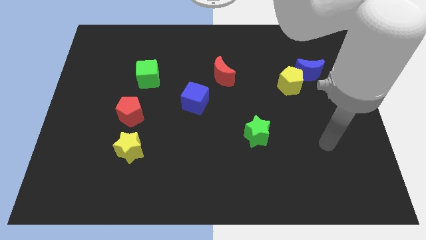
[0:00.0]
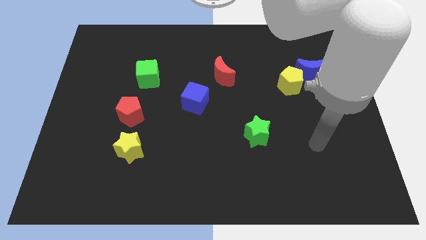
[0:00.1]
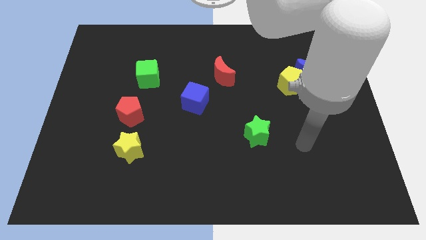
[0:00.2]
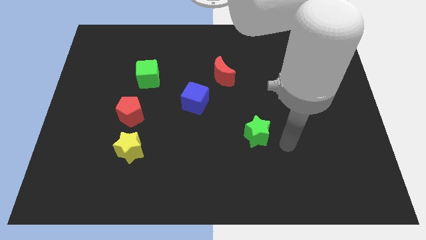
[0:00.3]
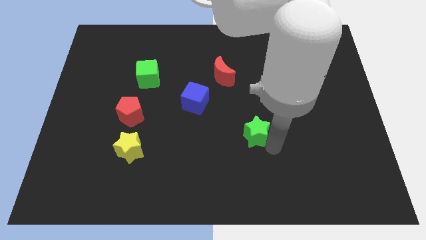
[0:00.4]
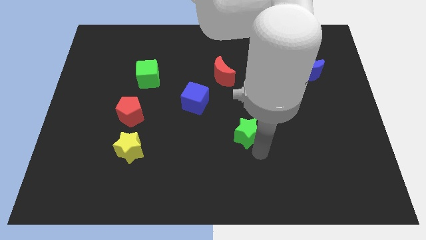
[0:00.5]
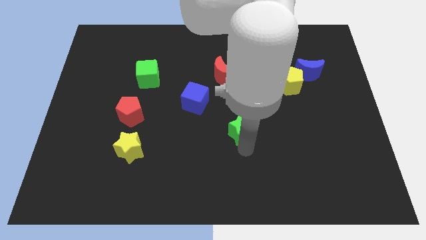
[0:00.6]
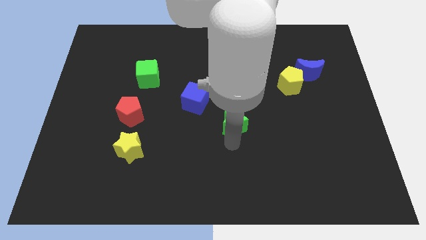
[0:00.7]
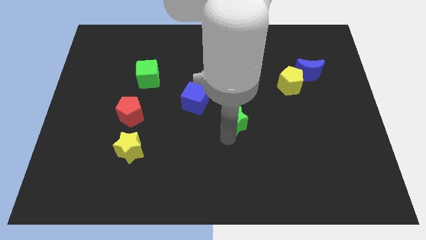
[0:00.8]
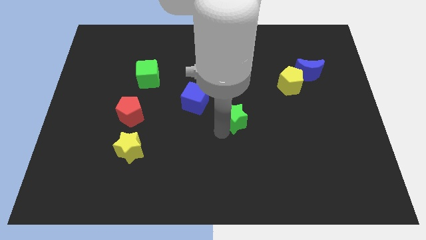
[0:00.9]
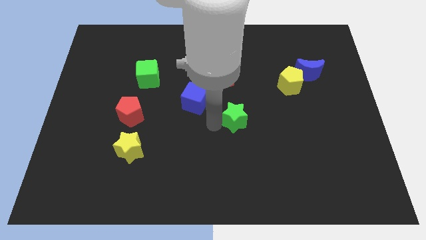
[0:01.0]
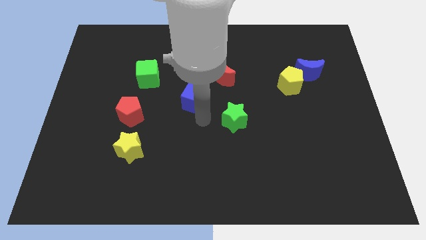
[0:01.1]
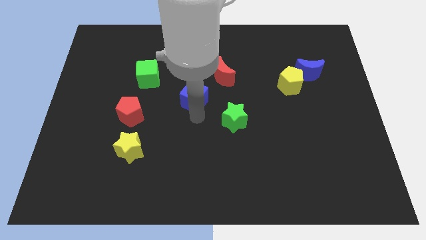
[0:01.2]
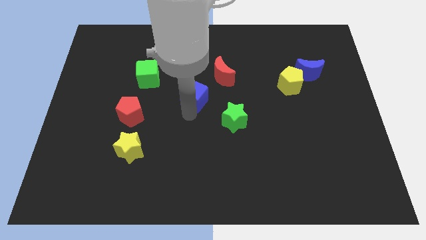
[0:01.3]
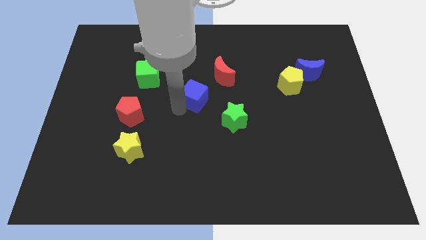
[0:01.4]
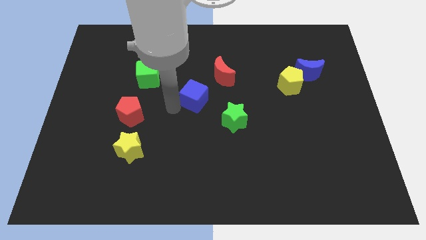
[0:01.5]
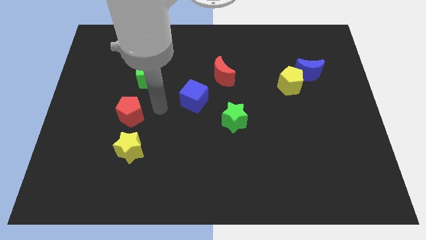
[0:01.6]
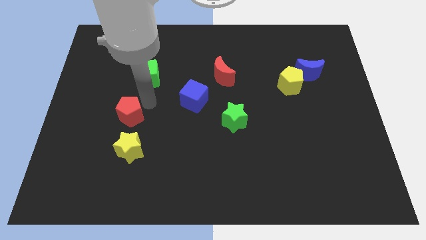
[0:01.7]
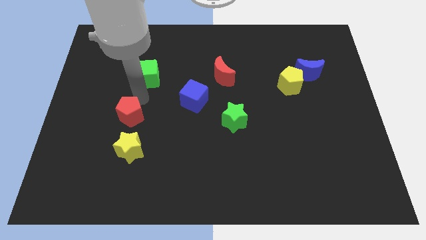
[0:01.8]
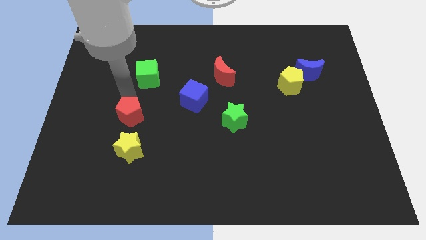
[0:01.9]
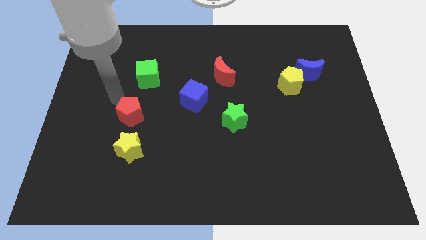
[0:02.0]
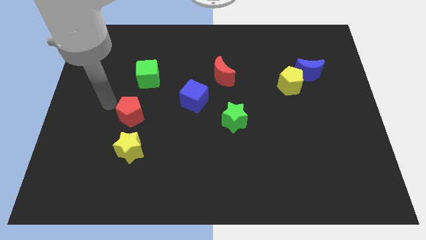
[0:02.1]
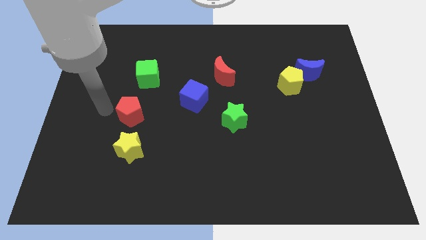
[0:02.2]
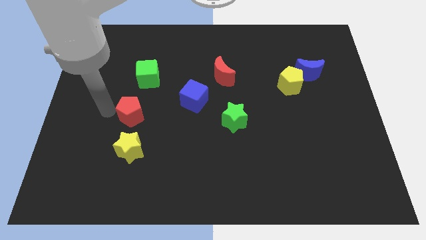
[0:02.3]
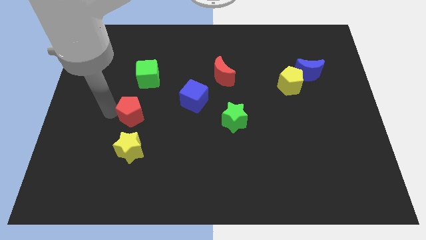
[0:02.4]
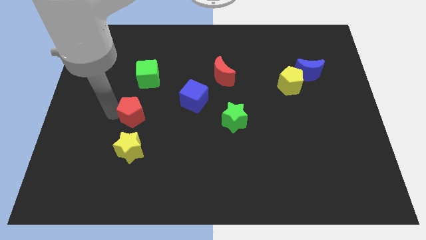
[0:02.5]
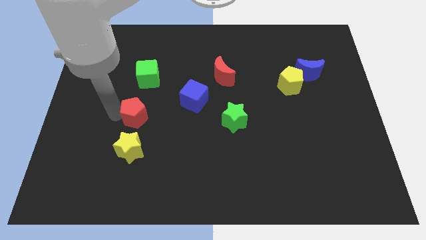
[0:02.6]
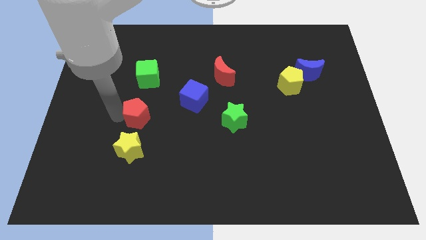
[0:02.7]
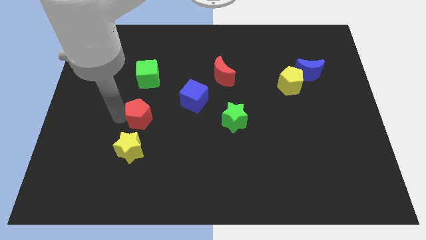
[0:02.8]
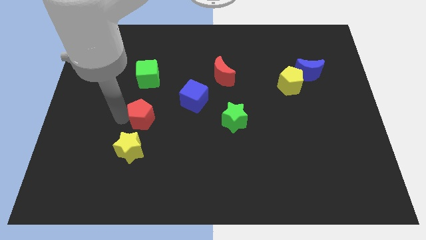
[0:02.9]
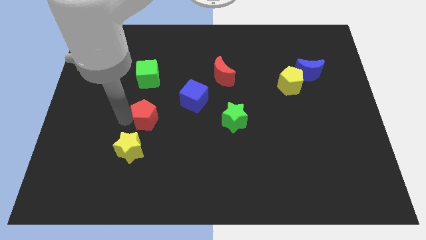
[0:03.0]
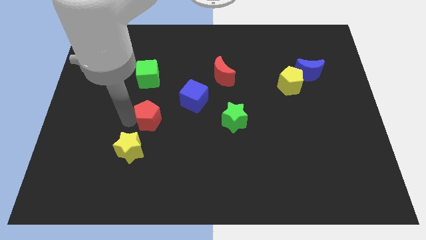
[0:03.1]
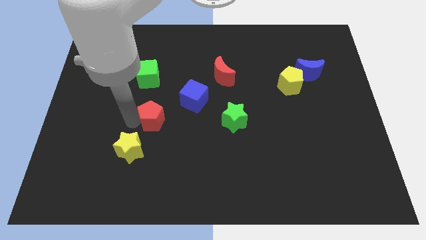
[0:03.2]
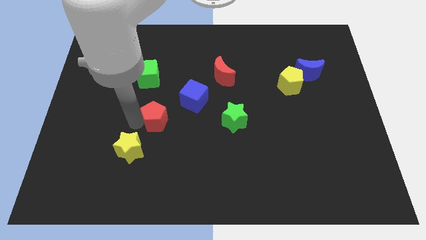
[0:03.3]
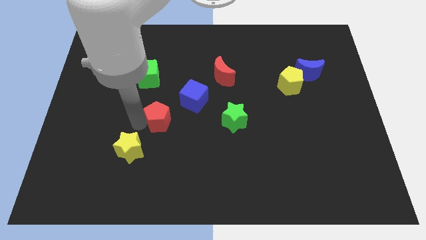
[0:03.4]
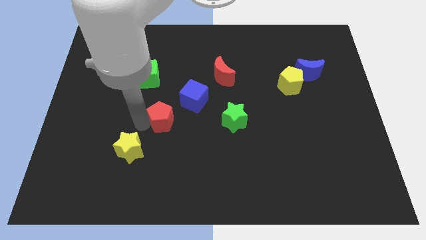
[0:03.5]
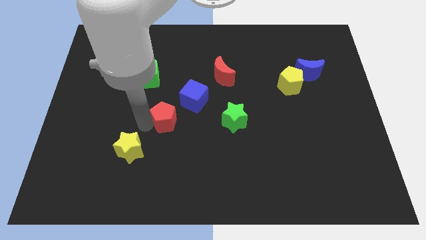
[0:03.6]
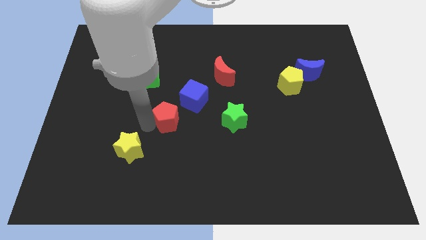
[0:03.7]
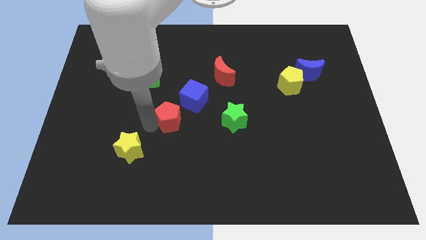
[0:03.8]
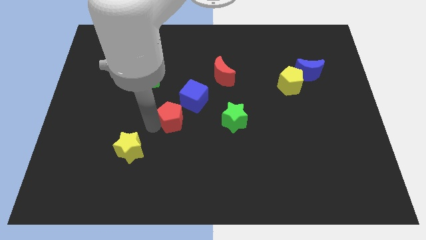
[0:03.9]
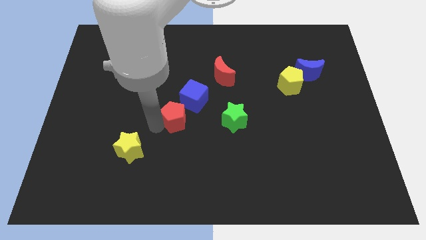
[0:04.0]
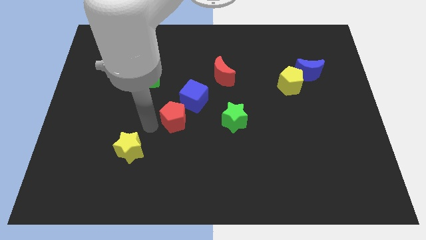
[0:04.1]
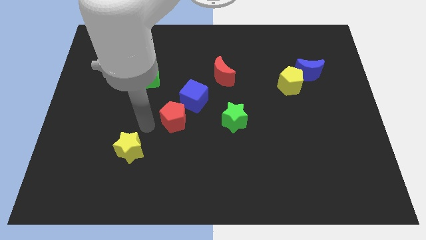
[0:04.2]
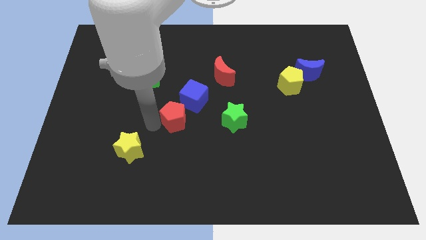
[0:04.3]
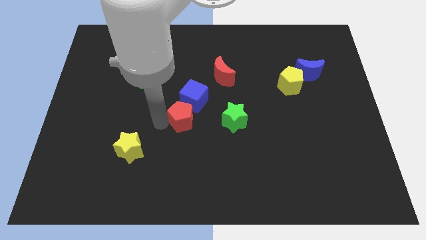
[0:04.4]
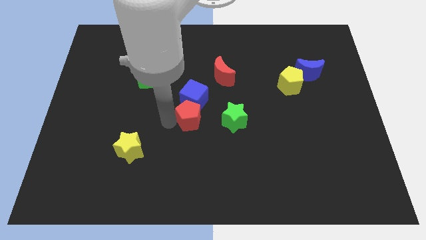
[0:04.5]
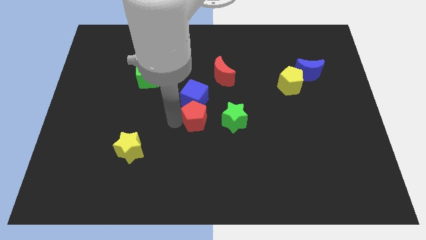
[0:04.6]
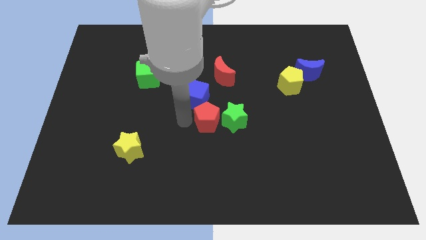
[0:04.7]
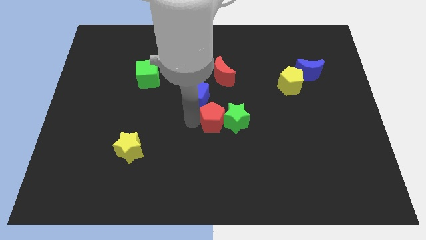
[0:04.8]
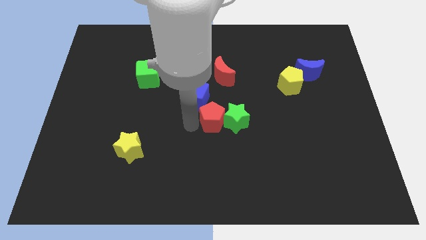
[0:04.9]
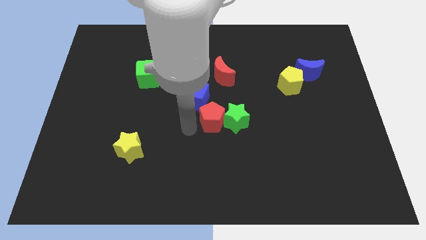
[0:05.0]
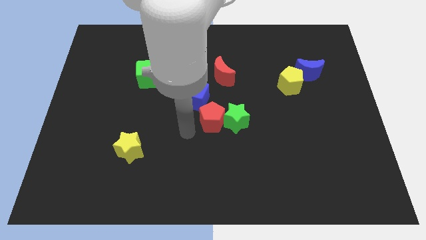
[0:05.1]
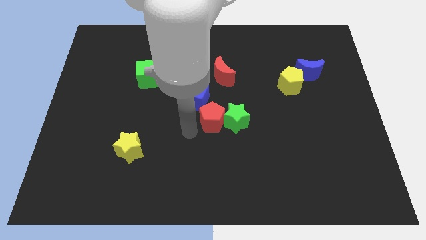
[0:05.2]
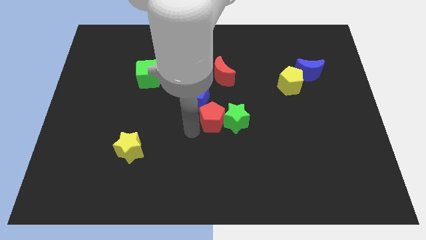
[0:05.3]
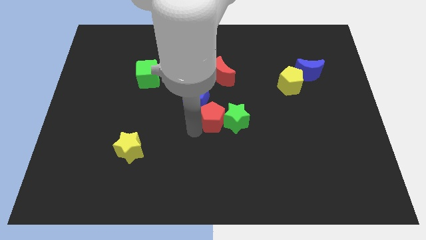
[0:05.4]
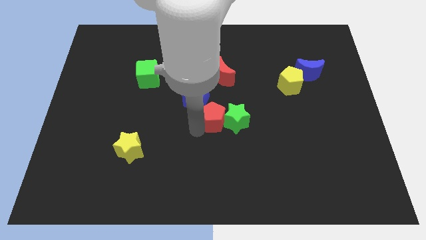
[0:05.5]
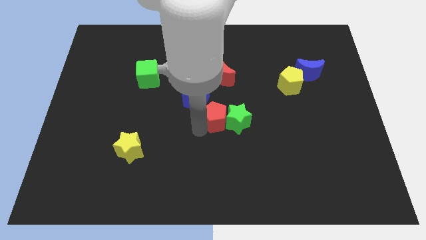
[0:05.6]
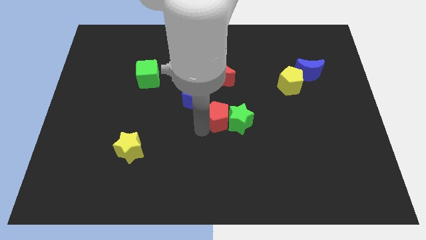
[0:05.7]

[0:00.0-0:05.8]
push the red pentagon to the right

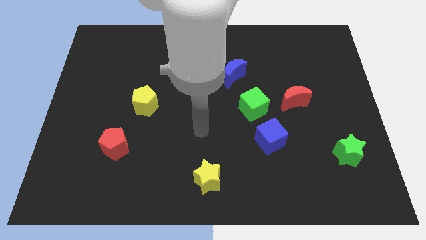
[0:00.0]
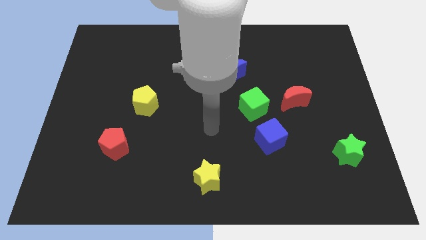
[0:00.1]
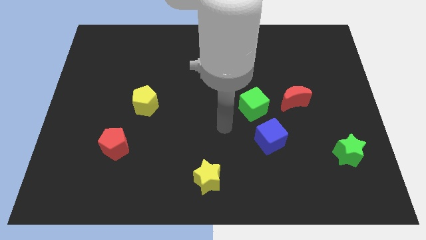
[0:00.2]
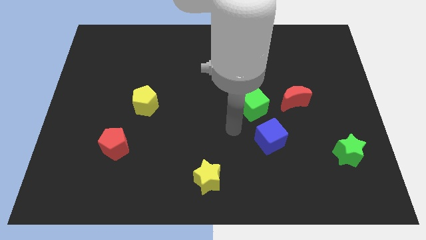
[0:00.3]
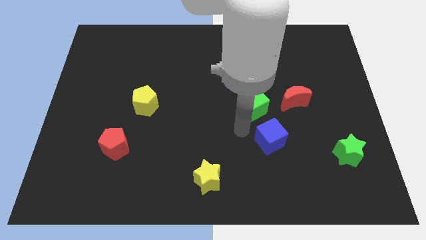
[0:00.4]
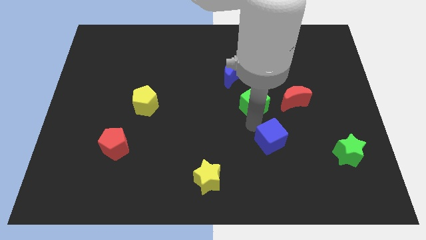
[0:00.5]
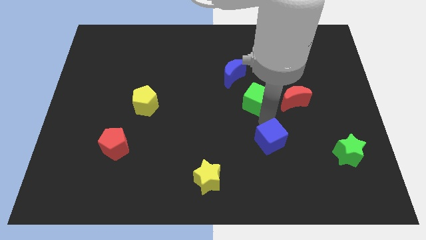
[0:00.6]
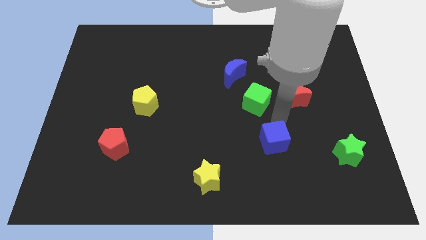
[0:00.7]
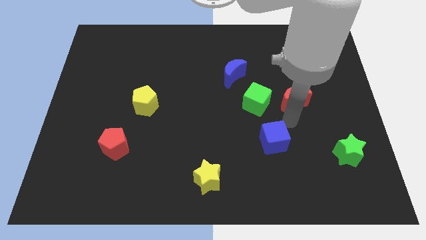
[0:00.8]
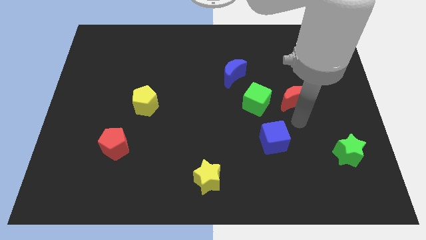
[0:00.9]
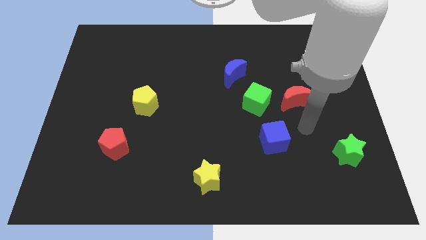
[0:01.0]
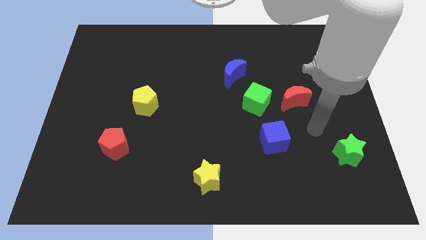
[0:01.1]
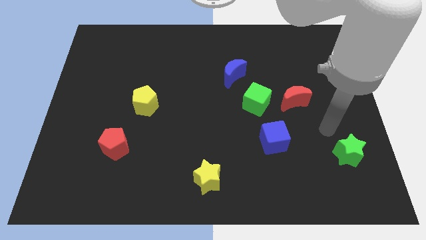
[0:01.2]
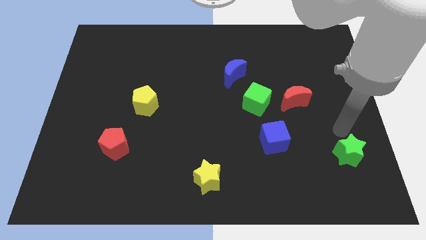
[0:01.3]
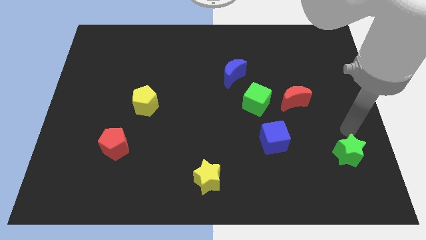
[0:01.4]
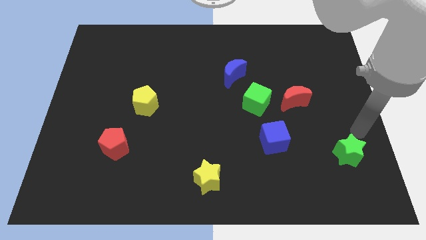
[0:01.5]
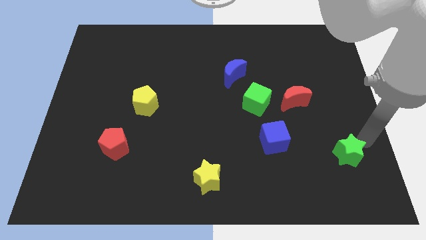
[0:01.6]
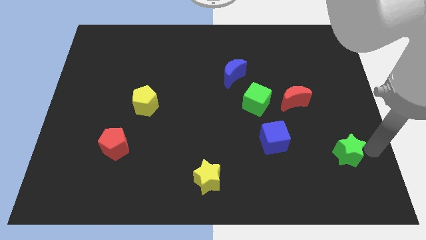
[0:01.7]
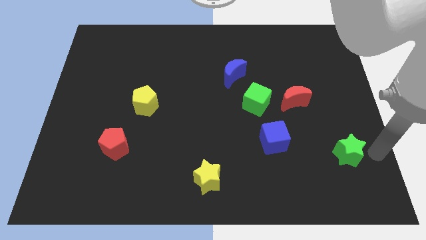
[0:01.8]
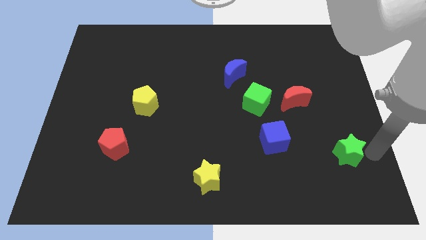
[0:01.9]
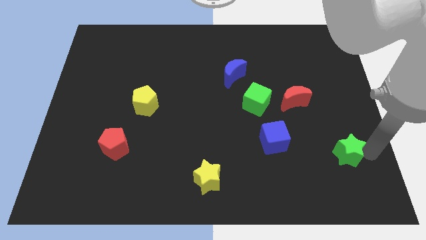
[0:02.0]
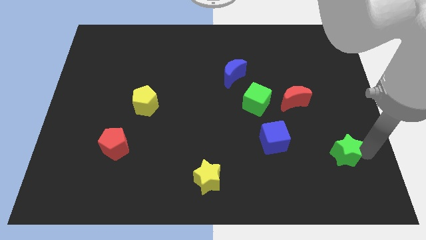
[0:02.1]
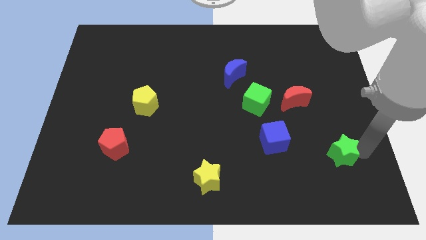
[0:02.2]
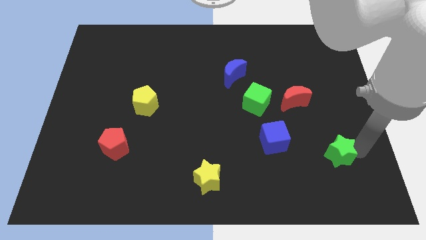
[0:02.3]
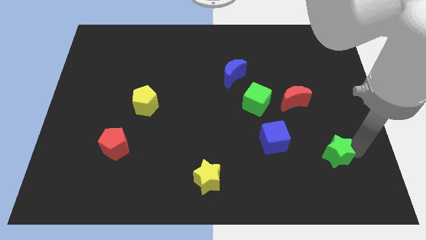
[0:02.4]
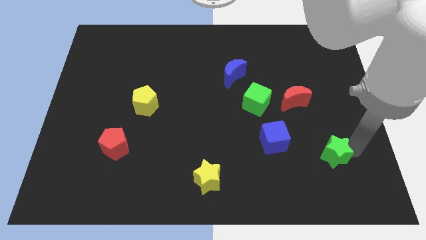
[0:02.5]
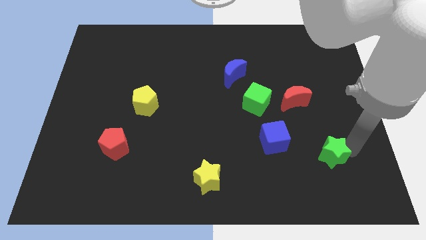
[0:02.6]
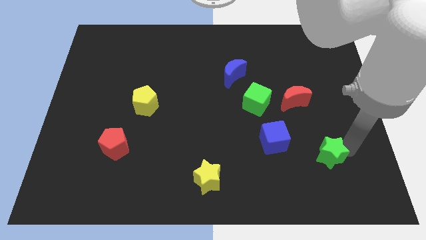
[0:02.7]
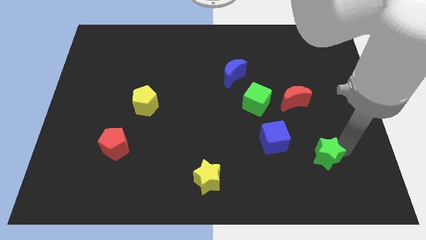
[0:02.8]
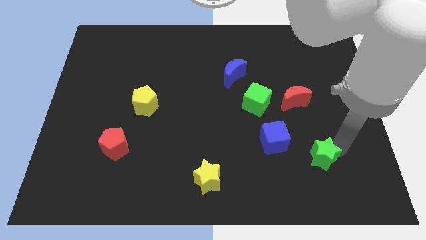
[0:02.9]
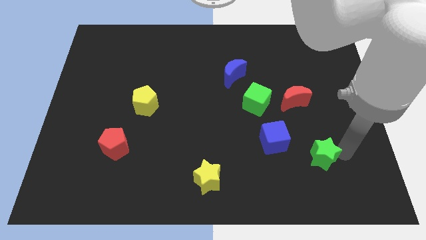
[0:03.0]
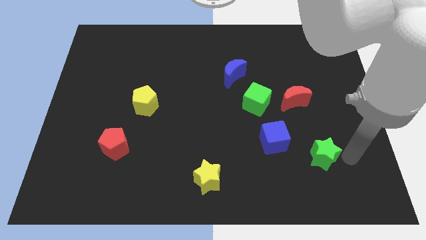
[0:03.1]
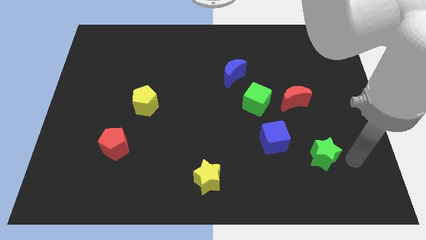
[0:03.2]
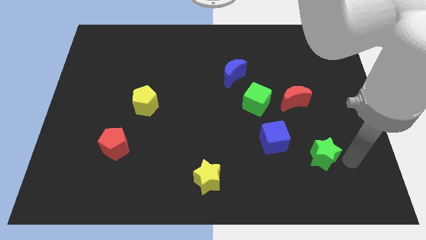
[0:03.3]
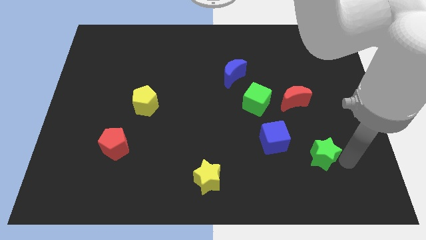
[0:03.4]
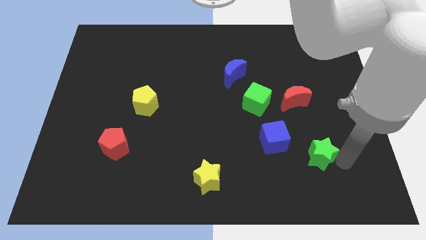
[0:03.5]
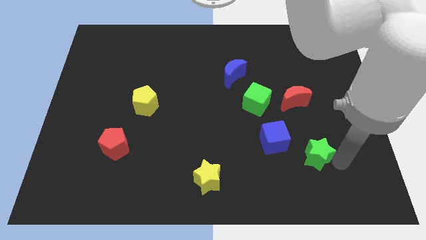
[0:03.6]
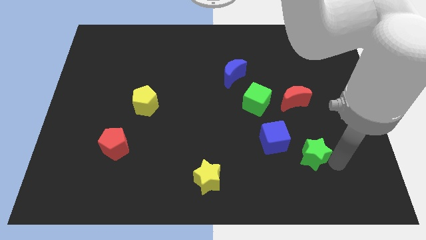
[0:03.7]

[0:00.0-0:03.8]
slightly move the green star to the left
